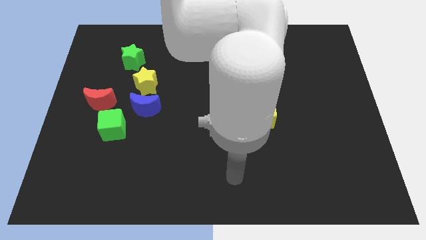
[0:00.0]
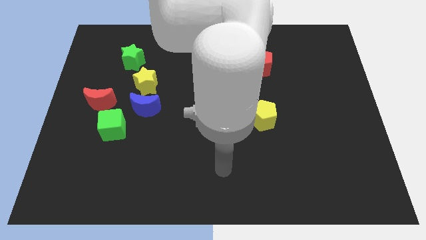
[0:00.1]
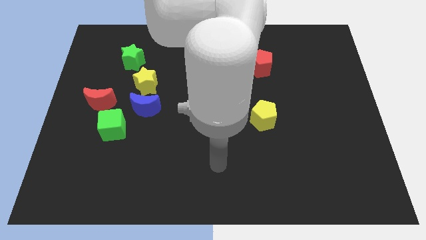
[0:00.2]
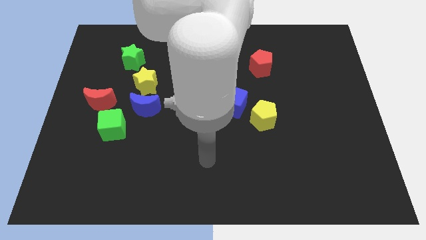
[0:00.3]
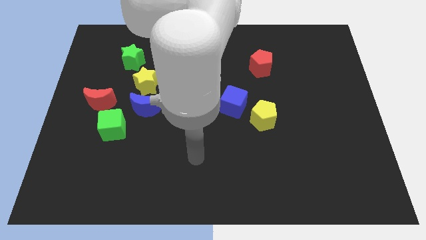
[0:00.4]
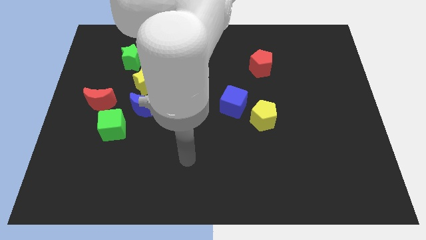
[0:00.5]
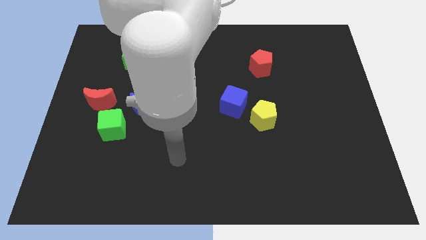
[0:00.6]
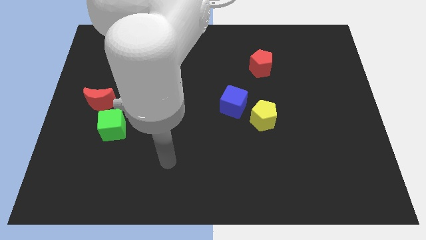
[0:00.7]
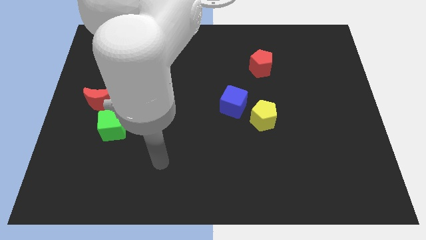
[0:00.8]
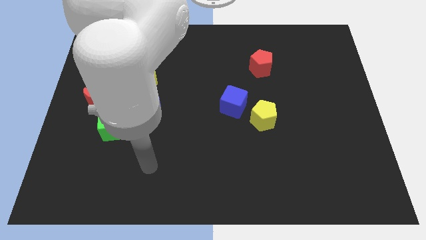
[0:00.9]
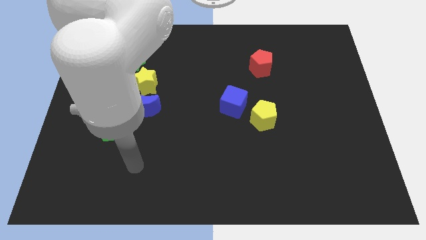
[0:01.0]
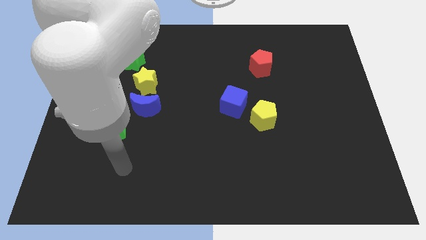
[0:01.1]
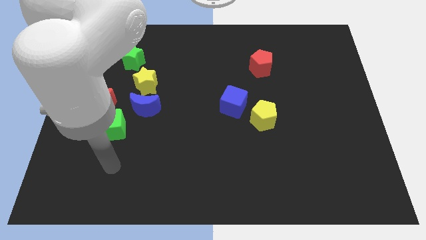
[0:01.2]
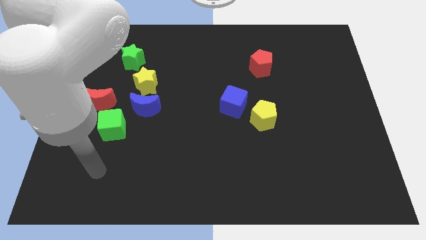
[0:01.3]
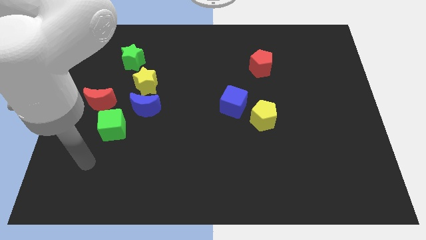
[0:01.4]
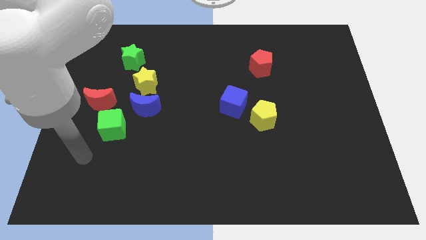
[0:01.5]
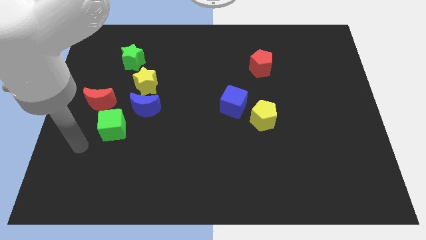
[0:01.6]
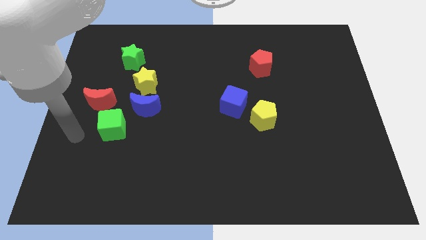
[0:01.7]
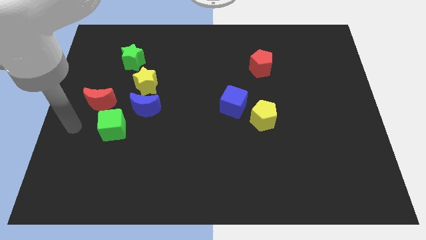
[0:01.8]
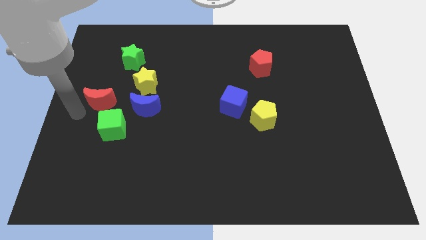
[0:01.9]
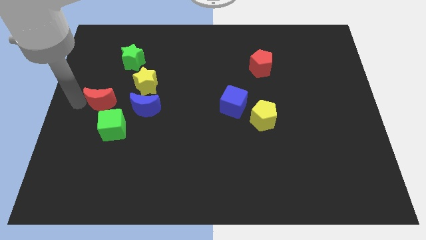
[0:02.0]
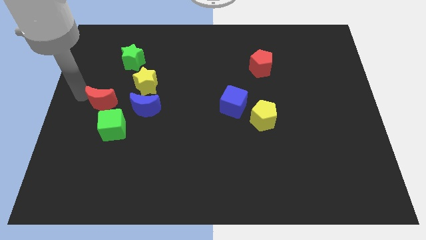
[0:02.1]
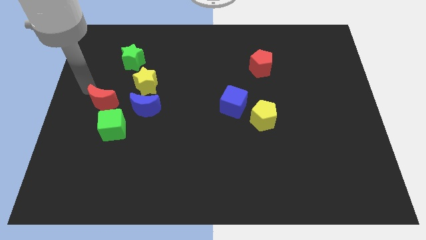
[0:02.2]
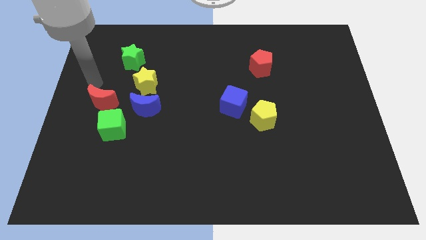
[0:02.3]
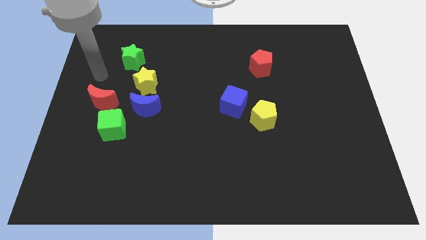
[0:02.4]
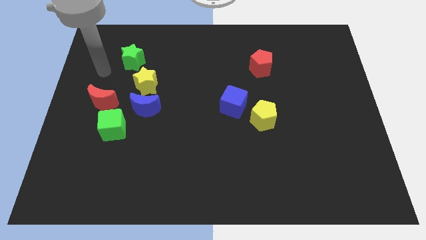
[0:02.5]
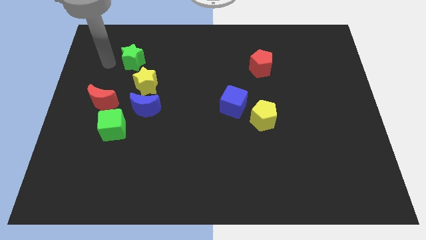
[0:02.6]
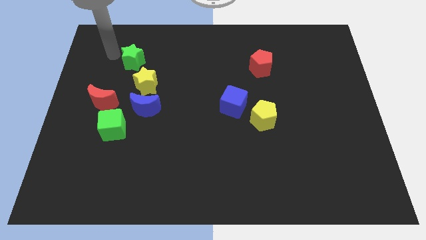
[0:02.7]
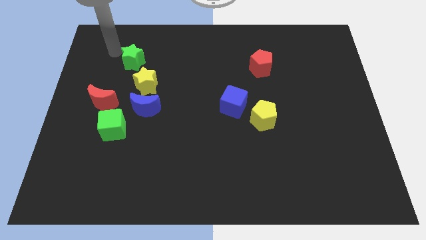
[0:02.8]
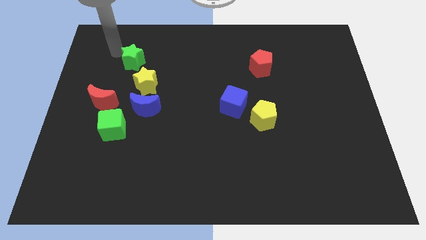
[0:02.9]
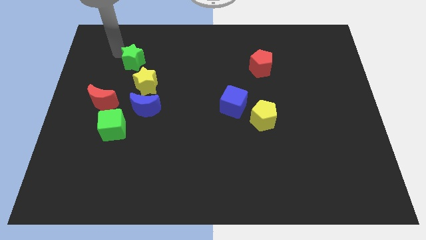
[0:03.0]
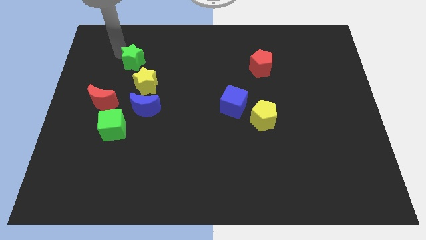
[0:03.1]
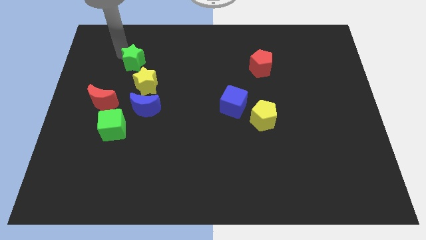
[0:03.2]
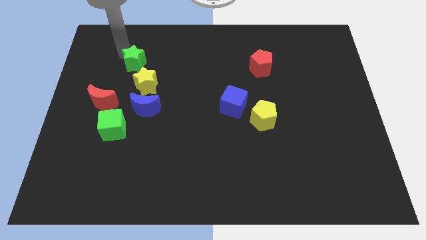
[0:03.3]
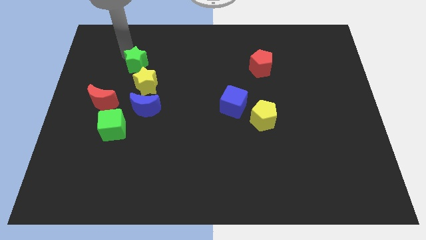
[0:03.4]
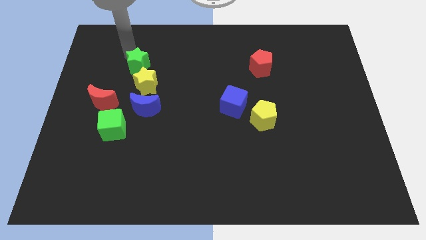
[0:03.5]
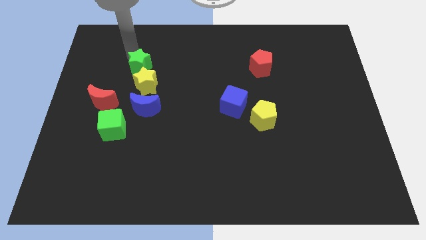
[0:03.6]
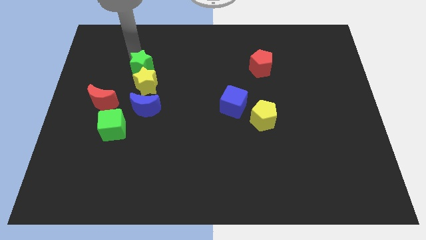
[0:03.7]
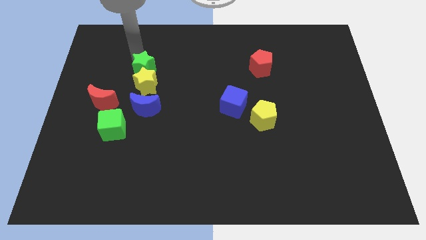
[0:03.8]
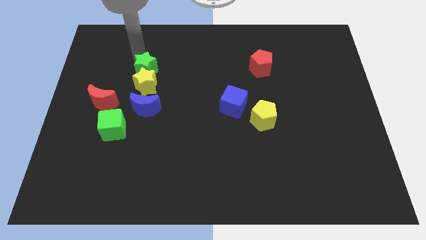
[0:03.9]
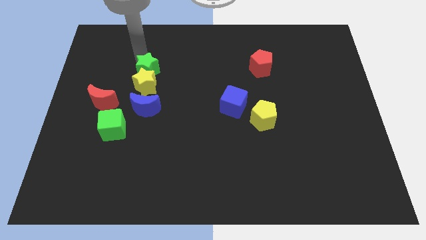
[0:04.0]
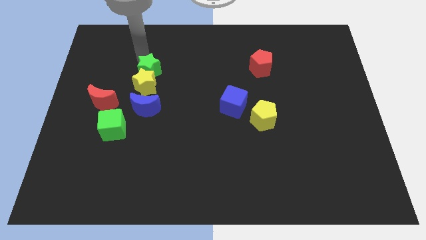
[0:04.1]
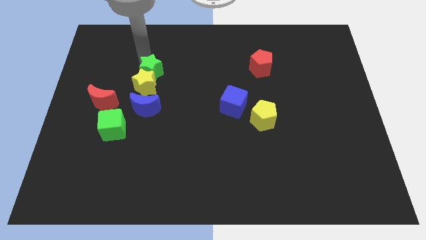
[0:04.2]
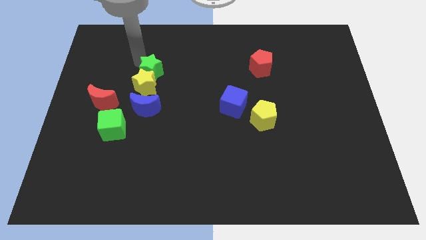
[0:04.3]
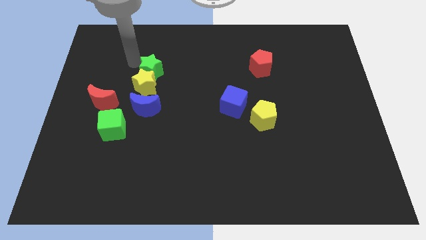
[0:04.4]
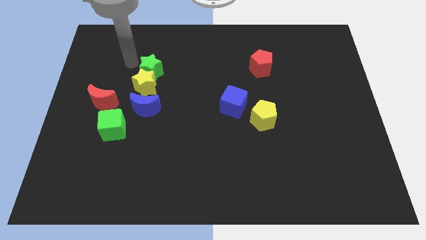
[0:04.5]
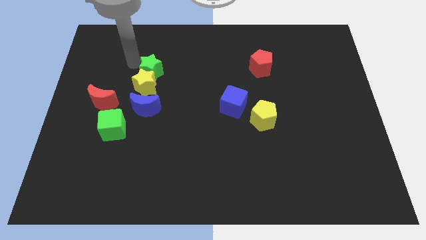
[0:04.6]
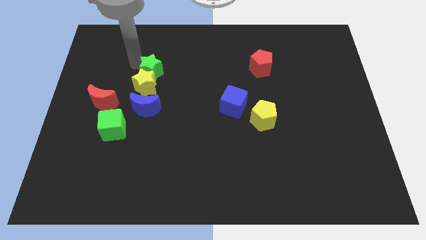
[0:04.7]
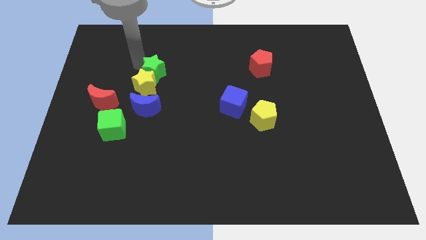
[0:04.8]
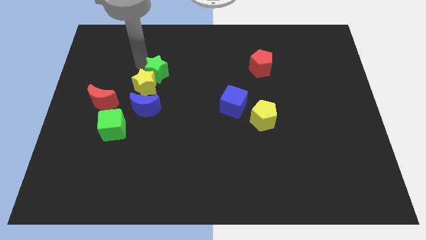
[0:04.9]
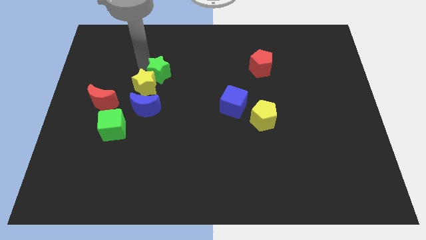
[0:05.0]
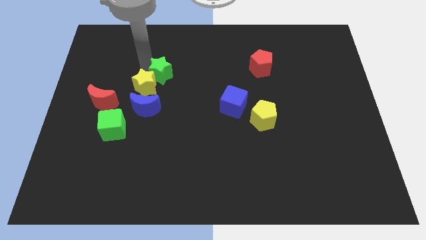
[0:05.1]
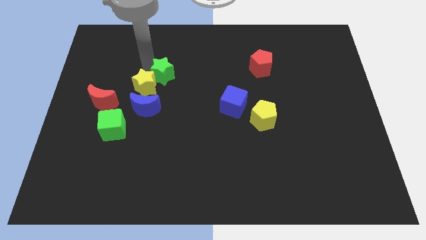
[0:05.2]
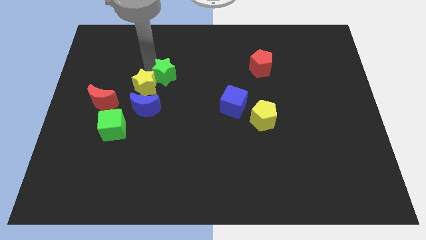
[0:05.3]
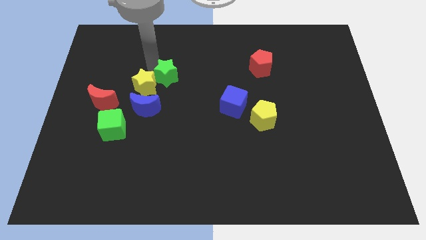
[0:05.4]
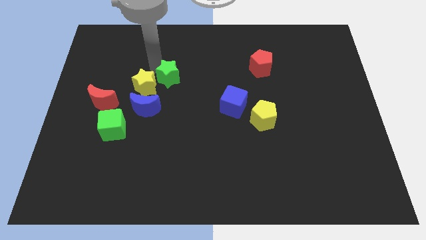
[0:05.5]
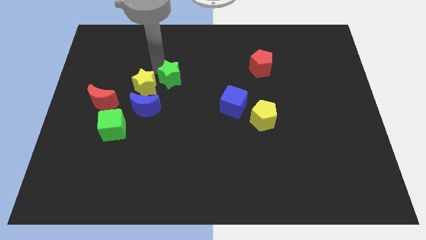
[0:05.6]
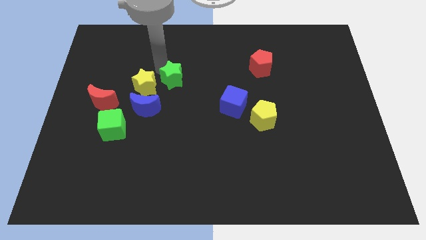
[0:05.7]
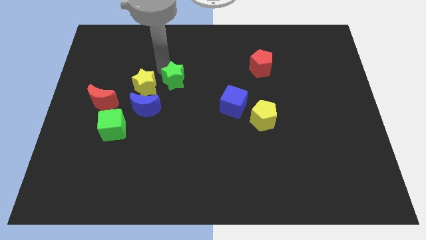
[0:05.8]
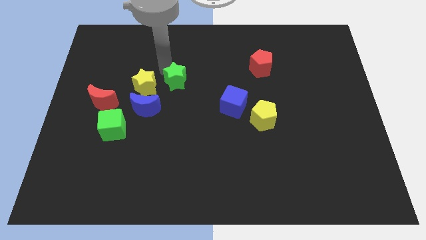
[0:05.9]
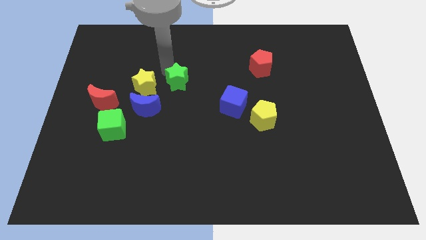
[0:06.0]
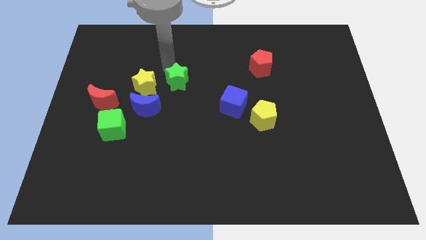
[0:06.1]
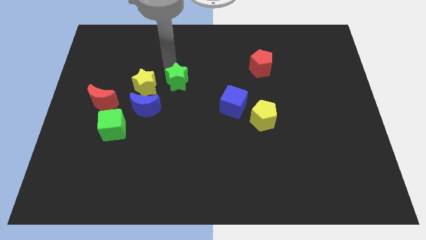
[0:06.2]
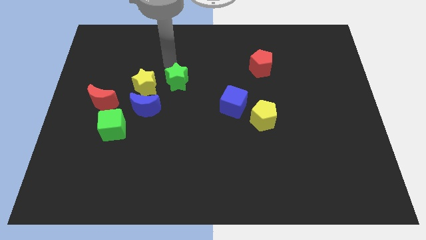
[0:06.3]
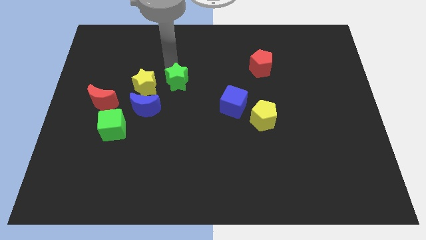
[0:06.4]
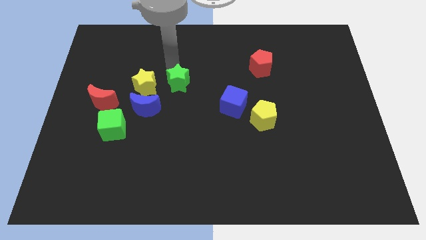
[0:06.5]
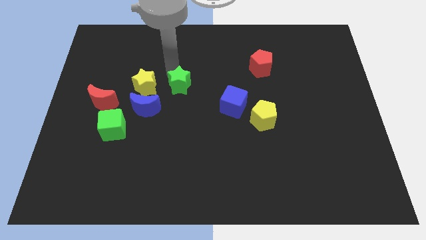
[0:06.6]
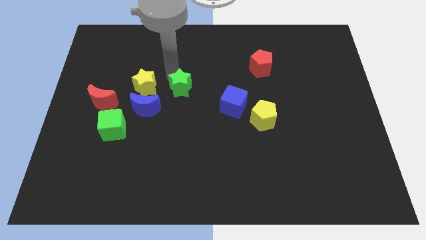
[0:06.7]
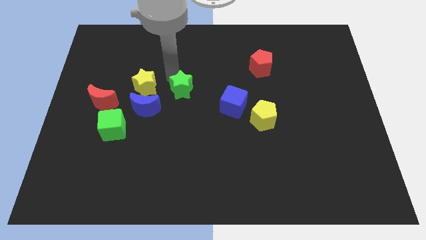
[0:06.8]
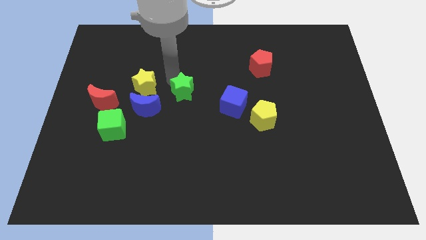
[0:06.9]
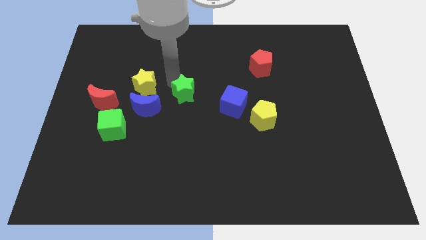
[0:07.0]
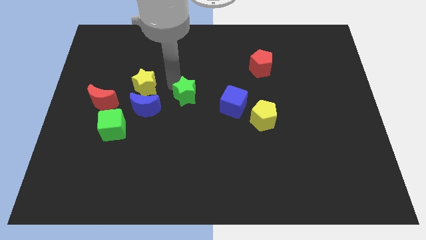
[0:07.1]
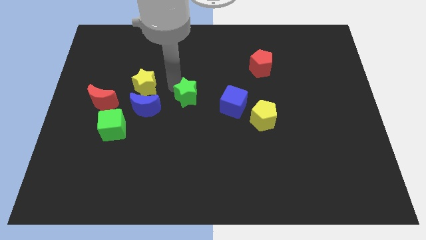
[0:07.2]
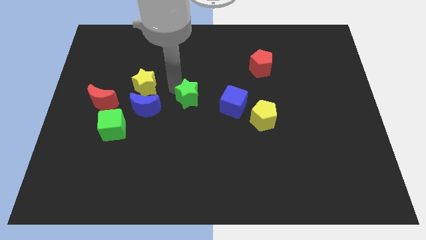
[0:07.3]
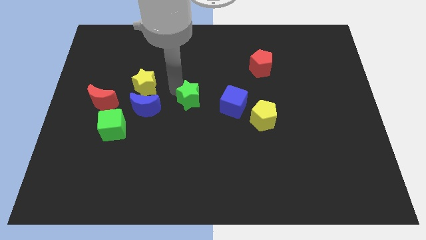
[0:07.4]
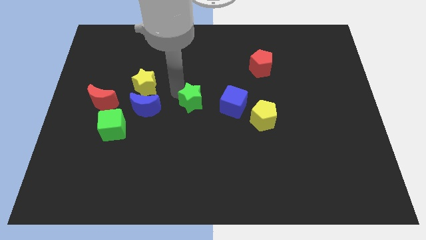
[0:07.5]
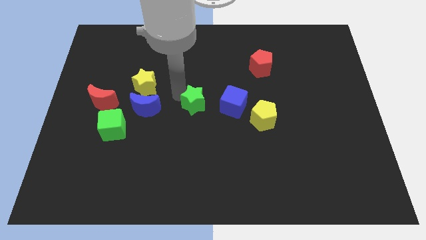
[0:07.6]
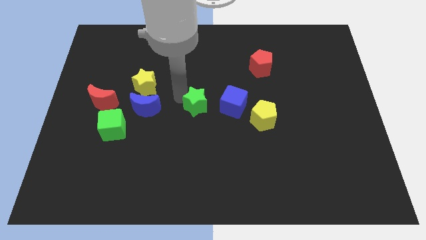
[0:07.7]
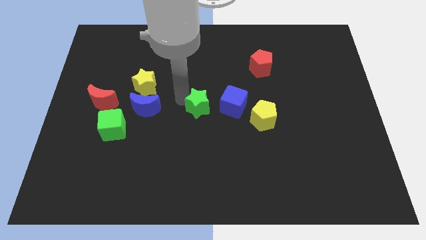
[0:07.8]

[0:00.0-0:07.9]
slide the green star to the left side of the yellow pentagon
